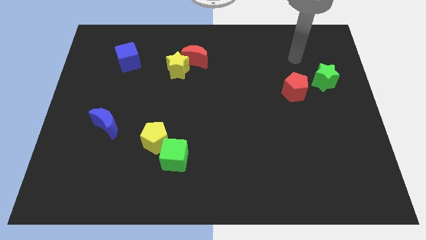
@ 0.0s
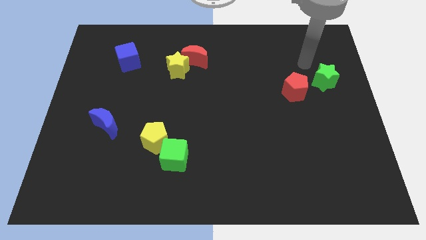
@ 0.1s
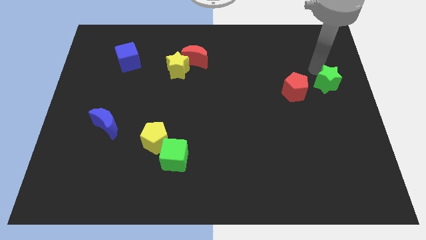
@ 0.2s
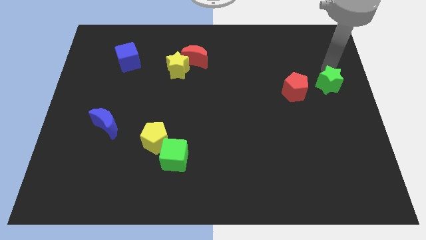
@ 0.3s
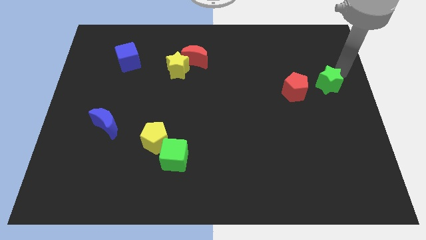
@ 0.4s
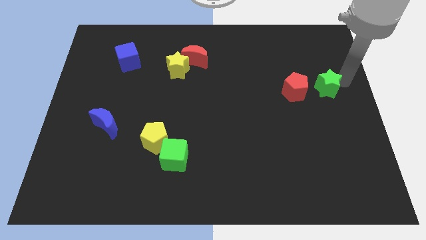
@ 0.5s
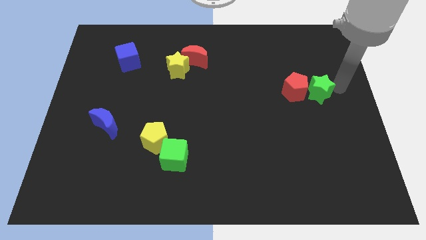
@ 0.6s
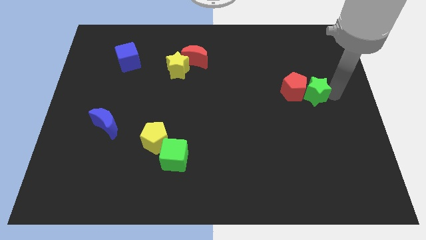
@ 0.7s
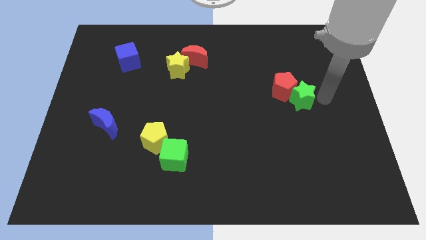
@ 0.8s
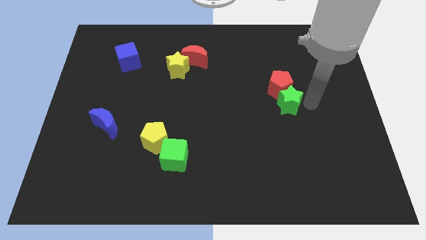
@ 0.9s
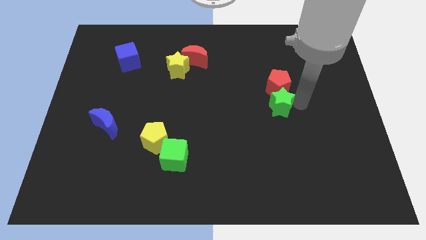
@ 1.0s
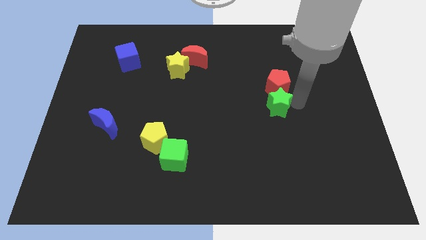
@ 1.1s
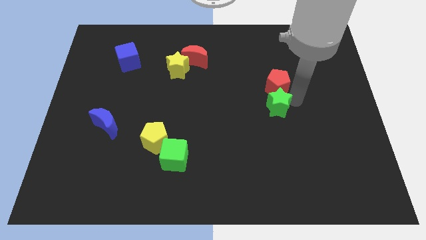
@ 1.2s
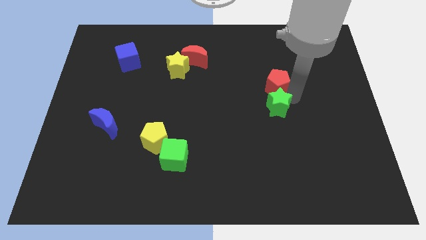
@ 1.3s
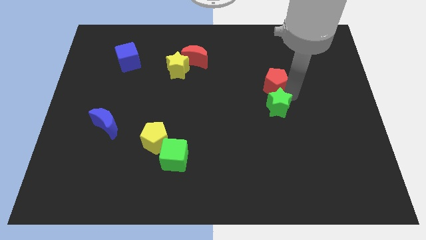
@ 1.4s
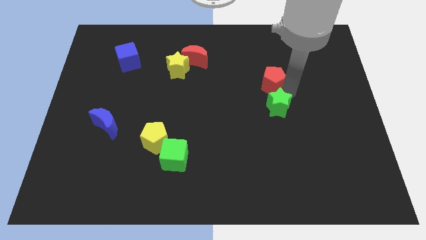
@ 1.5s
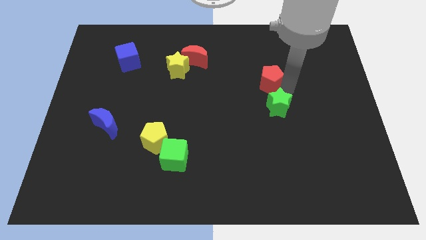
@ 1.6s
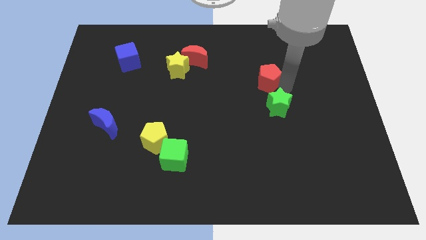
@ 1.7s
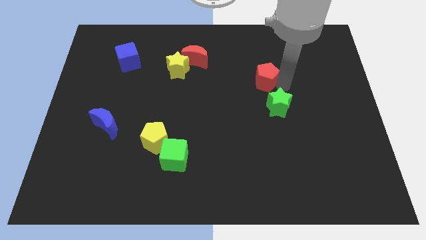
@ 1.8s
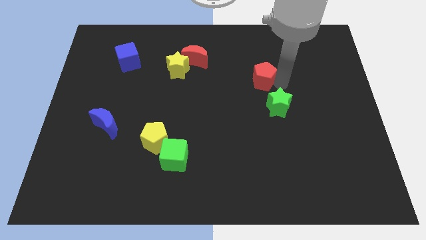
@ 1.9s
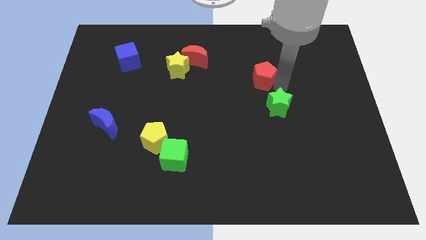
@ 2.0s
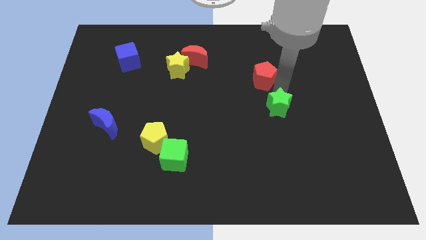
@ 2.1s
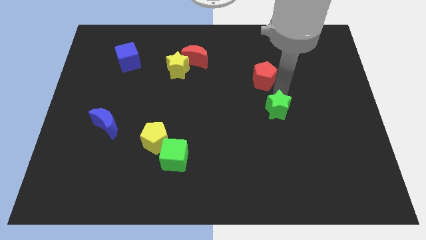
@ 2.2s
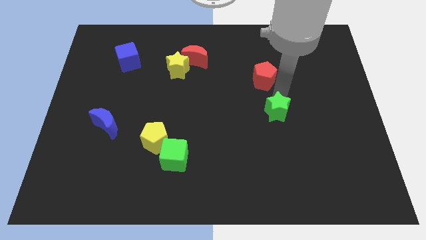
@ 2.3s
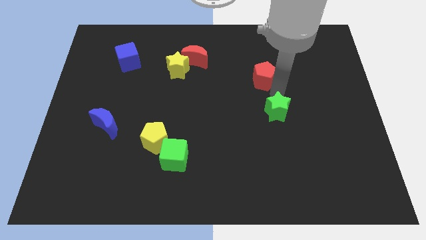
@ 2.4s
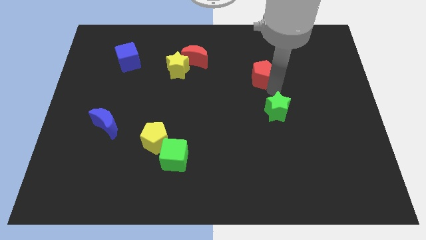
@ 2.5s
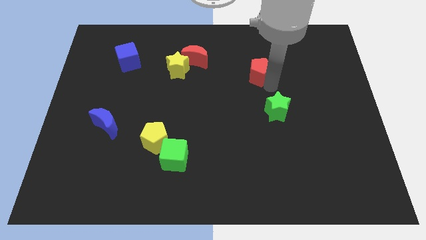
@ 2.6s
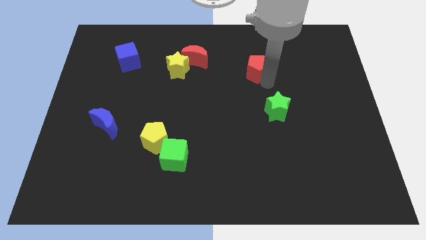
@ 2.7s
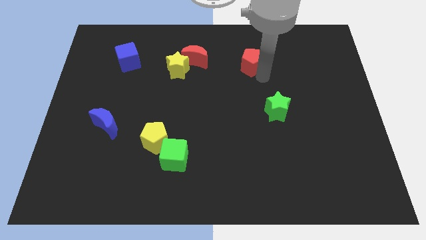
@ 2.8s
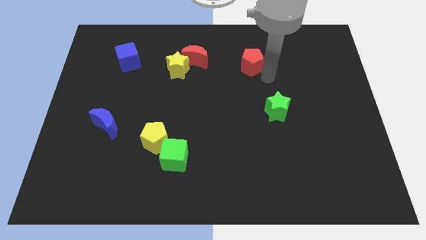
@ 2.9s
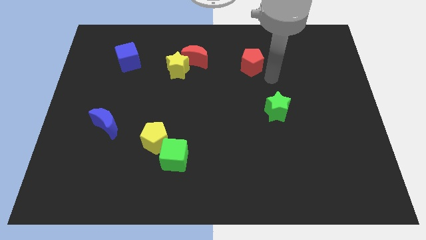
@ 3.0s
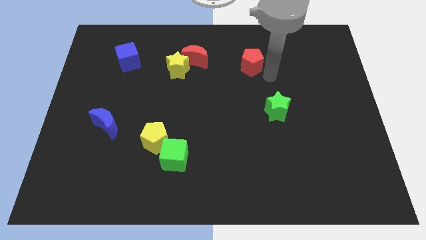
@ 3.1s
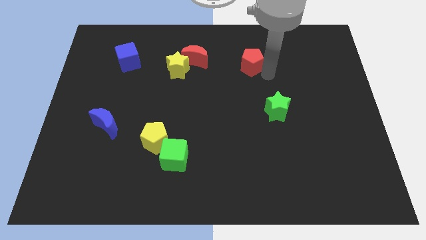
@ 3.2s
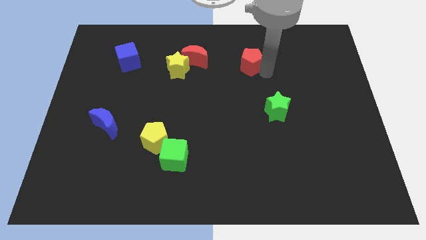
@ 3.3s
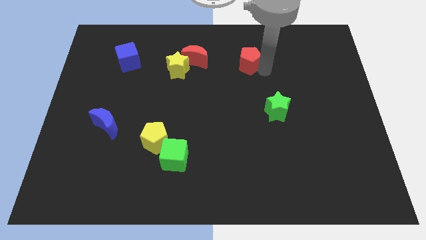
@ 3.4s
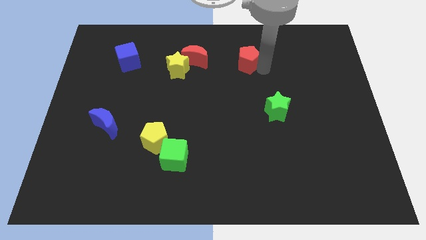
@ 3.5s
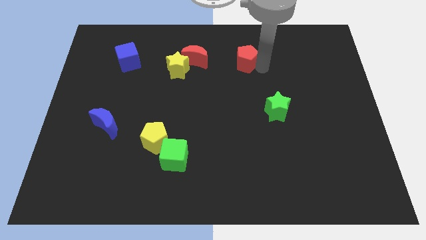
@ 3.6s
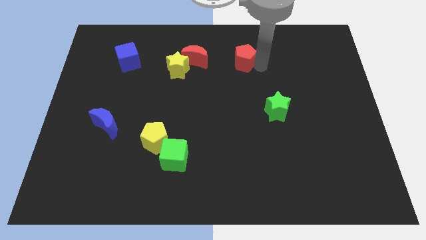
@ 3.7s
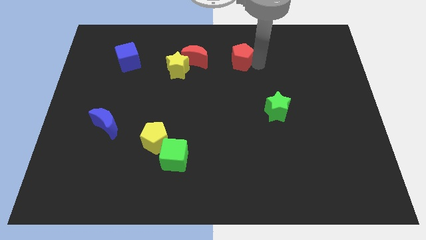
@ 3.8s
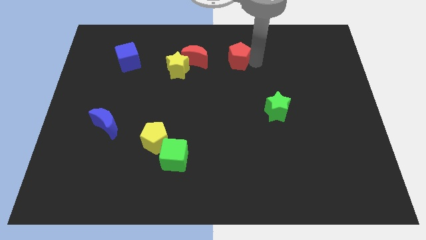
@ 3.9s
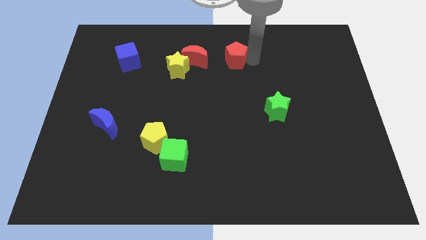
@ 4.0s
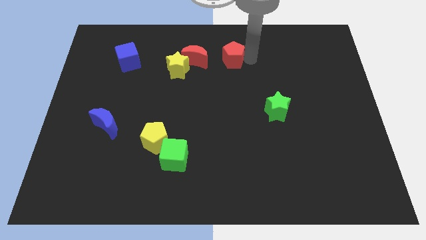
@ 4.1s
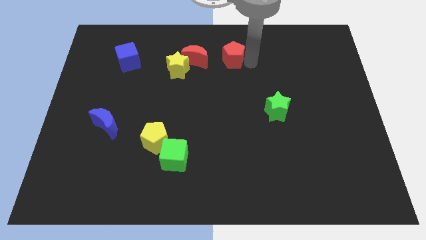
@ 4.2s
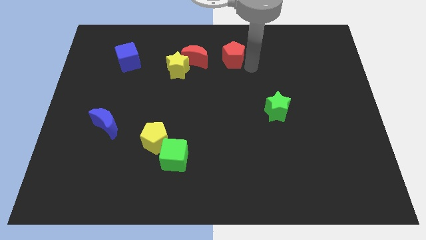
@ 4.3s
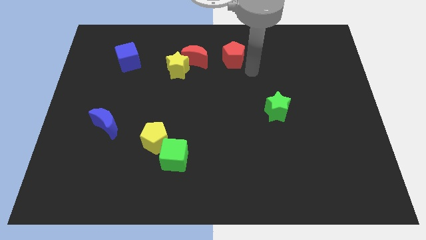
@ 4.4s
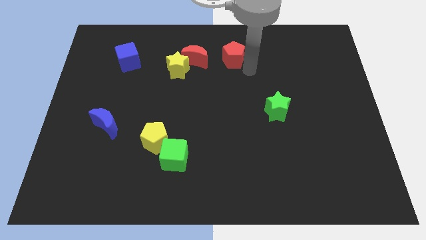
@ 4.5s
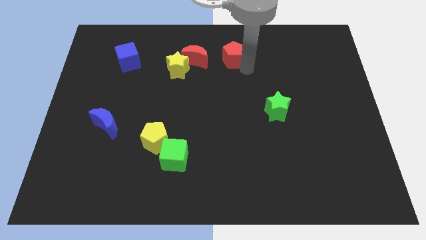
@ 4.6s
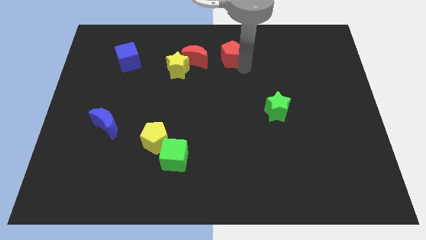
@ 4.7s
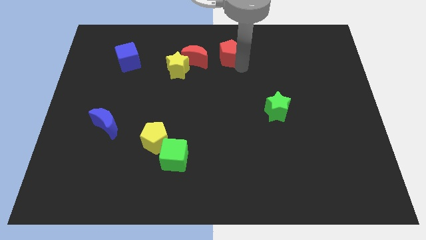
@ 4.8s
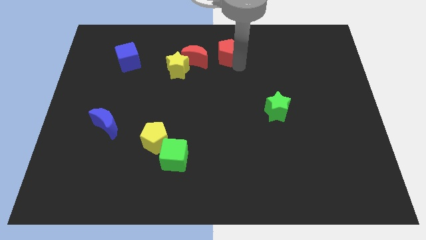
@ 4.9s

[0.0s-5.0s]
slide the red pentagon to the top

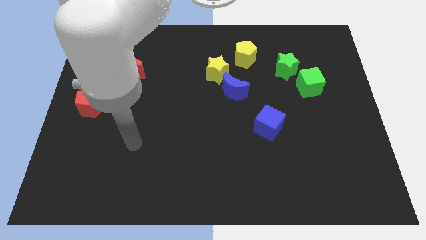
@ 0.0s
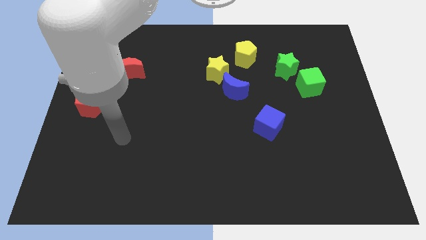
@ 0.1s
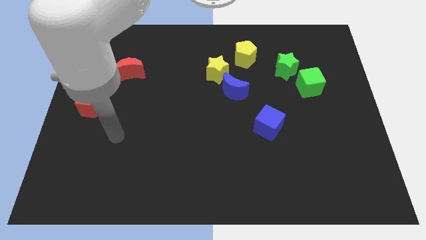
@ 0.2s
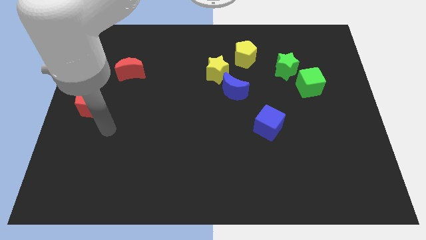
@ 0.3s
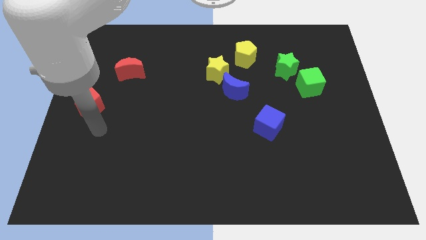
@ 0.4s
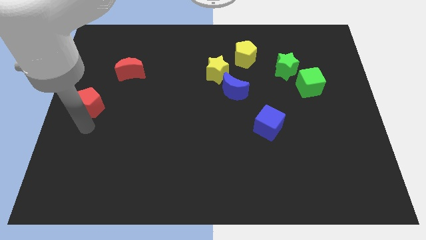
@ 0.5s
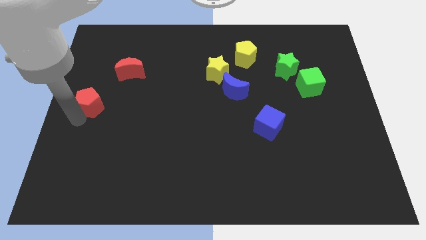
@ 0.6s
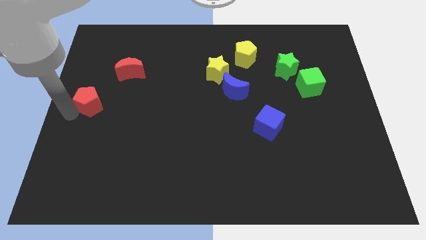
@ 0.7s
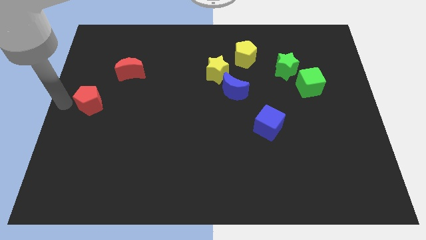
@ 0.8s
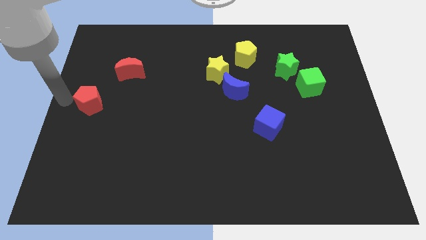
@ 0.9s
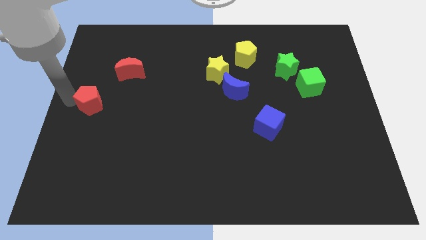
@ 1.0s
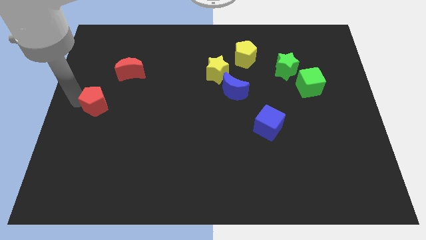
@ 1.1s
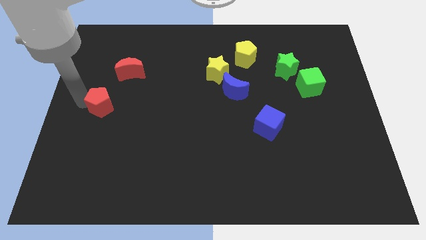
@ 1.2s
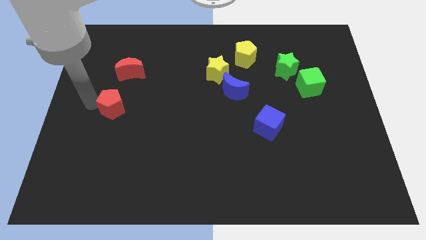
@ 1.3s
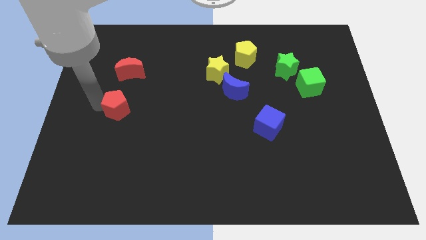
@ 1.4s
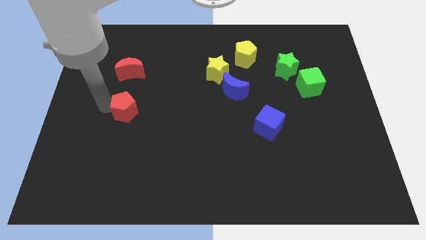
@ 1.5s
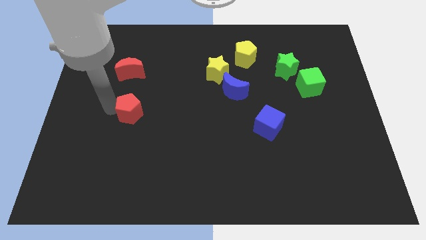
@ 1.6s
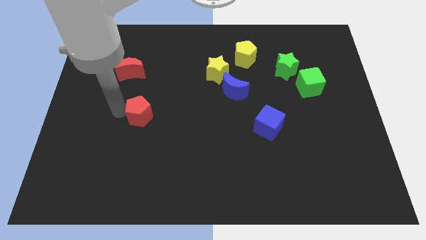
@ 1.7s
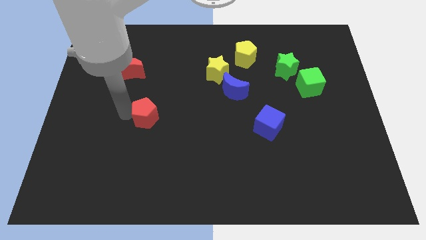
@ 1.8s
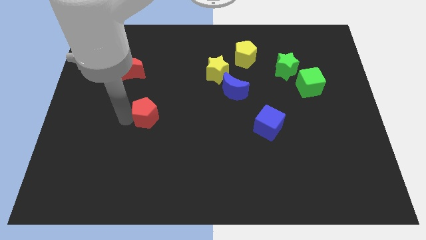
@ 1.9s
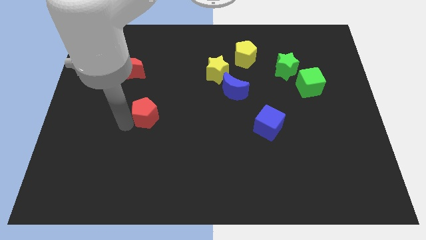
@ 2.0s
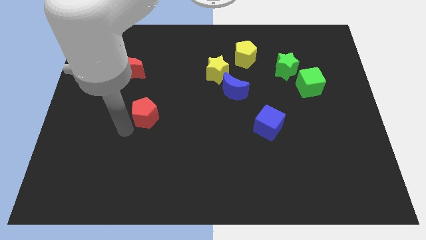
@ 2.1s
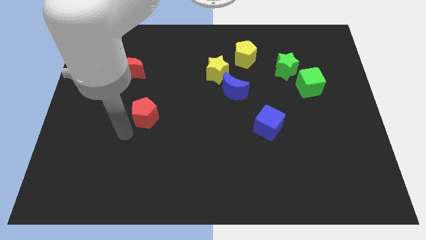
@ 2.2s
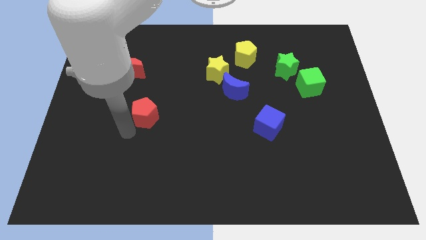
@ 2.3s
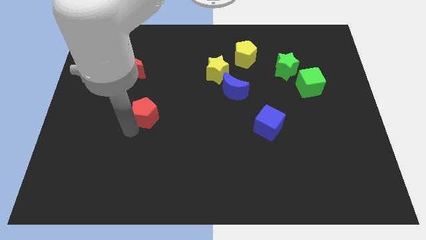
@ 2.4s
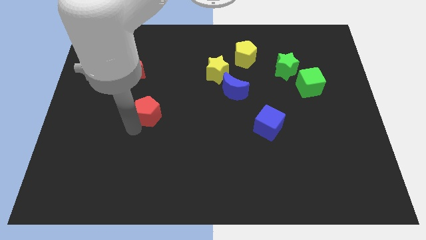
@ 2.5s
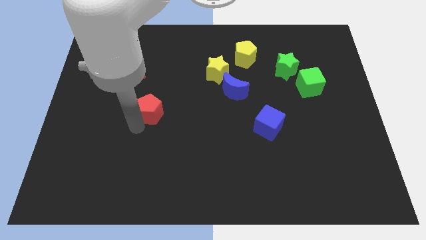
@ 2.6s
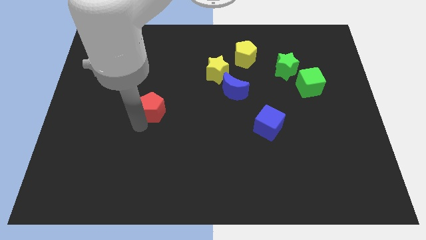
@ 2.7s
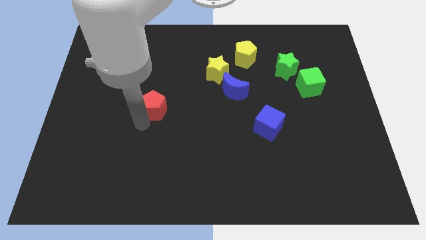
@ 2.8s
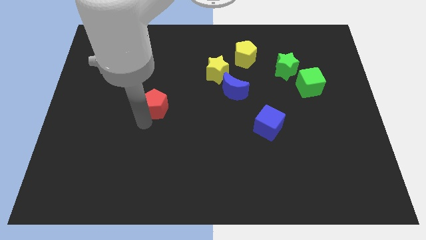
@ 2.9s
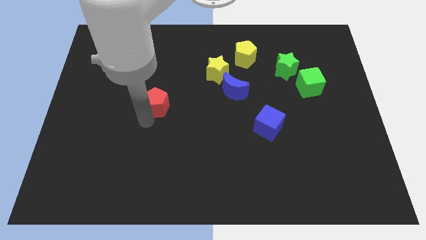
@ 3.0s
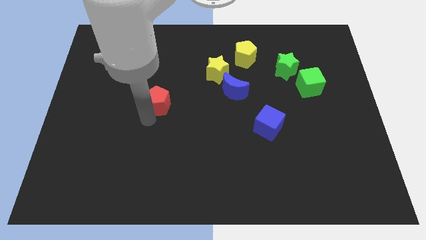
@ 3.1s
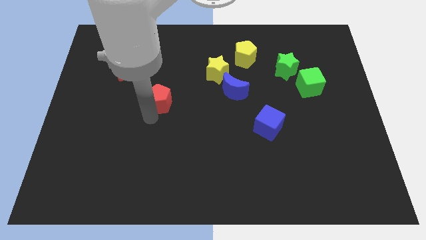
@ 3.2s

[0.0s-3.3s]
move the red pentagon to the middle
